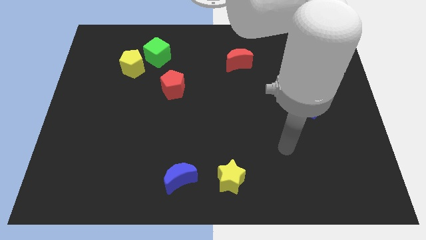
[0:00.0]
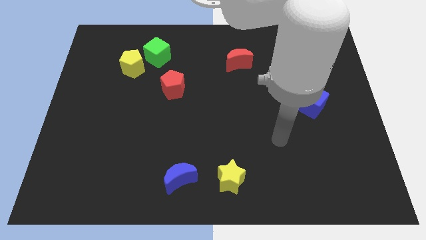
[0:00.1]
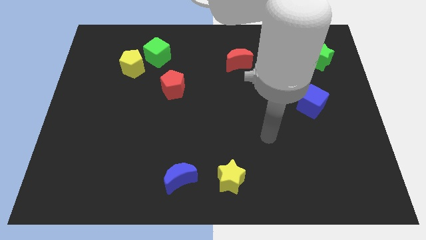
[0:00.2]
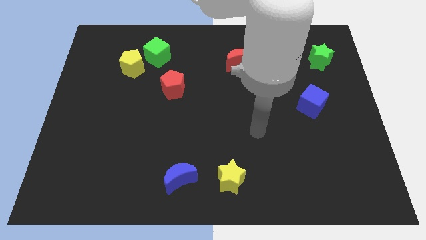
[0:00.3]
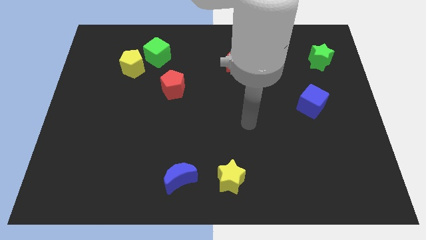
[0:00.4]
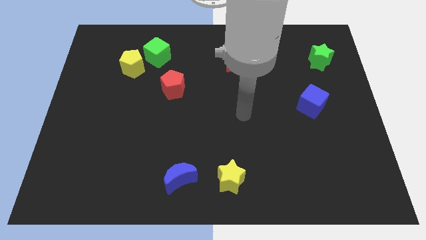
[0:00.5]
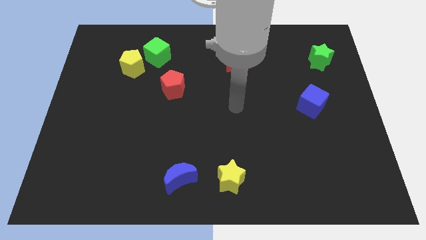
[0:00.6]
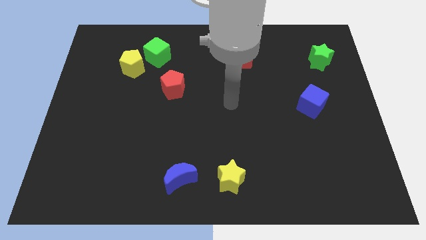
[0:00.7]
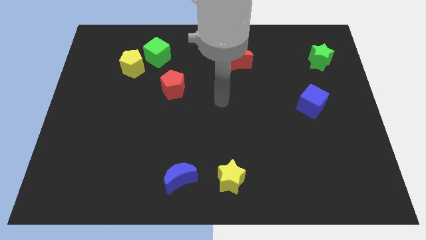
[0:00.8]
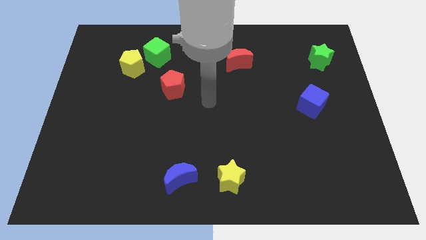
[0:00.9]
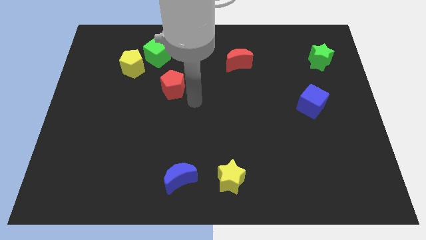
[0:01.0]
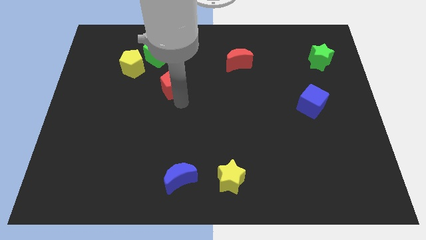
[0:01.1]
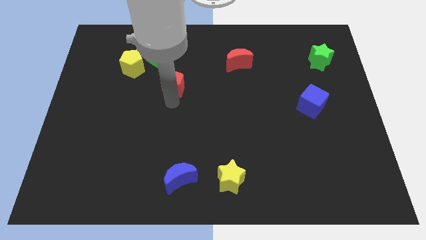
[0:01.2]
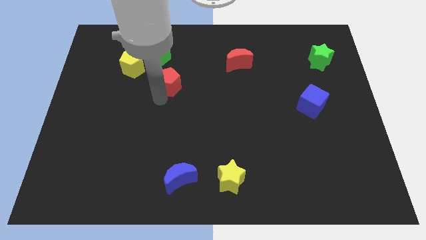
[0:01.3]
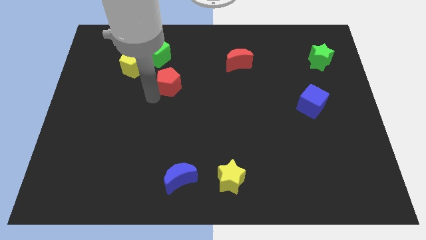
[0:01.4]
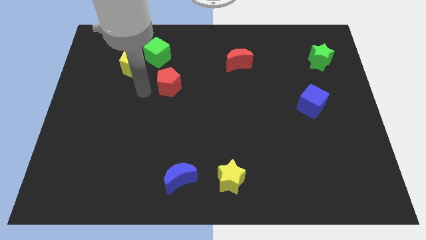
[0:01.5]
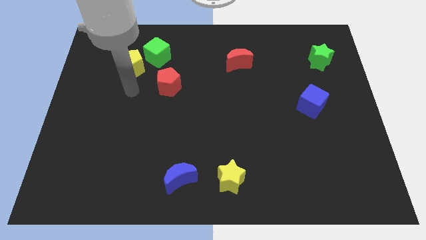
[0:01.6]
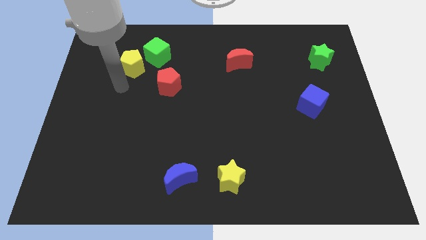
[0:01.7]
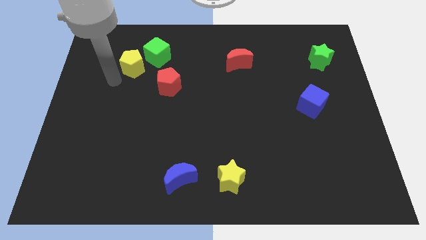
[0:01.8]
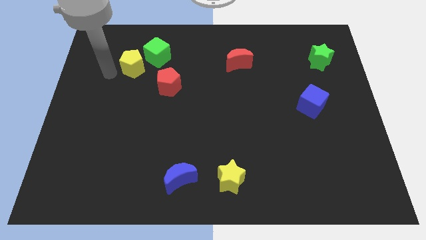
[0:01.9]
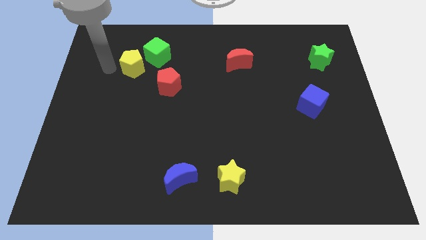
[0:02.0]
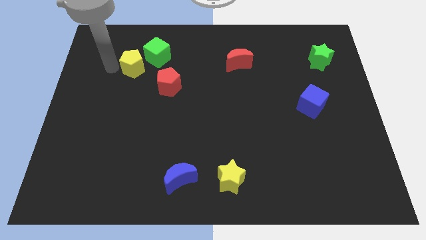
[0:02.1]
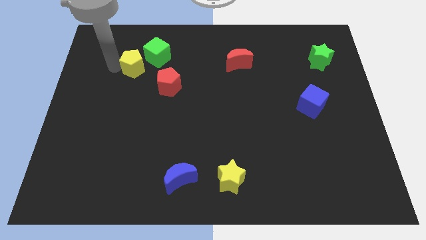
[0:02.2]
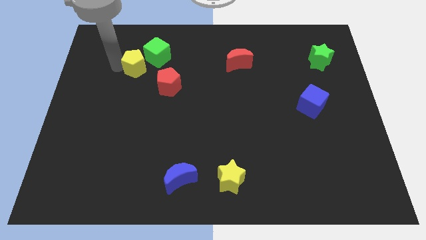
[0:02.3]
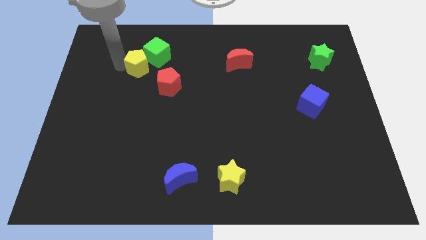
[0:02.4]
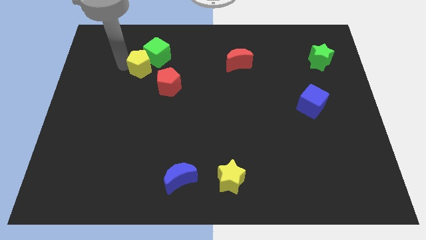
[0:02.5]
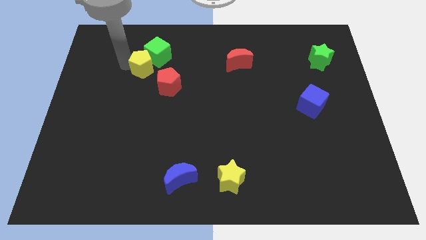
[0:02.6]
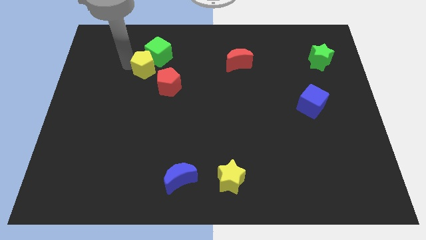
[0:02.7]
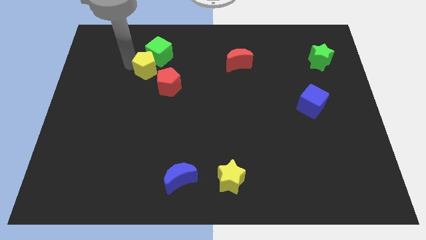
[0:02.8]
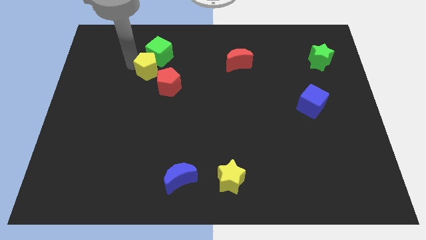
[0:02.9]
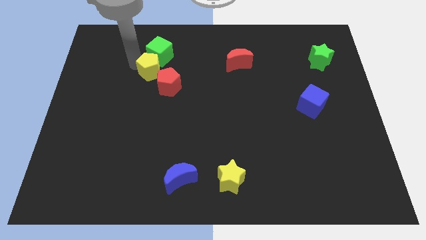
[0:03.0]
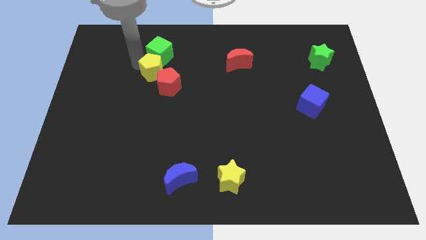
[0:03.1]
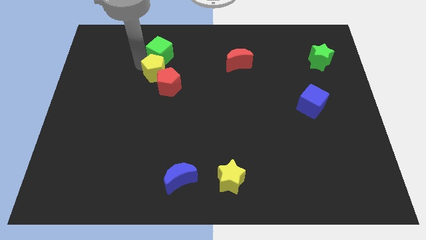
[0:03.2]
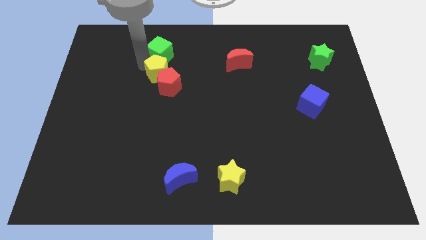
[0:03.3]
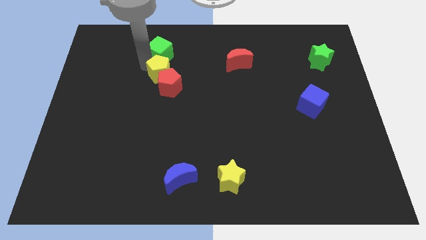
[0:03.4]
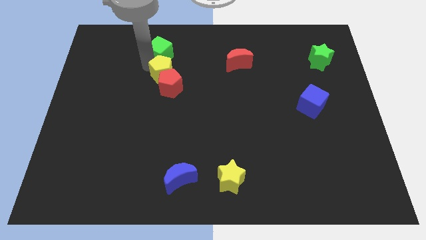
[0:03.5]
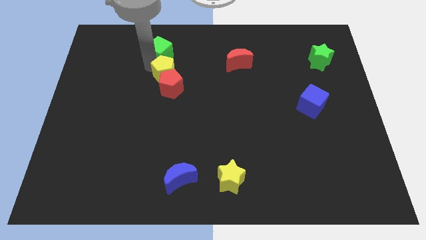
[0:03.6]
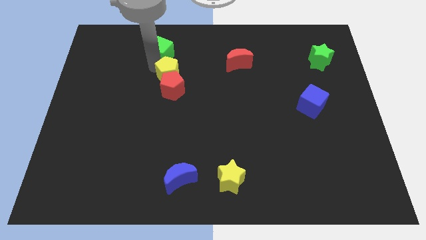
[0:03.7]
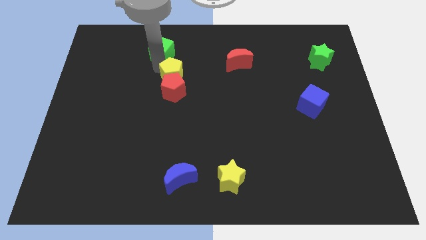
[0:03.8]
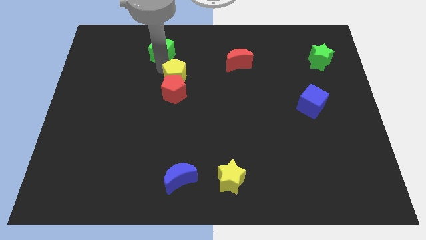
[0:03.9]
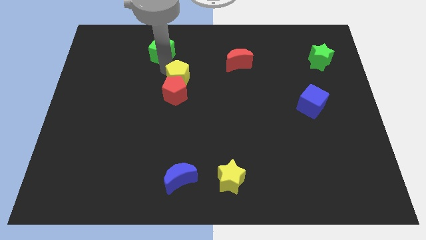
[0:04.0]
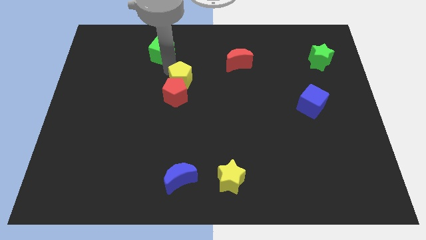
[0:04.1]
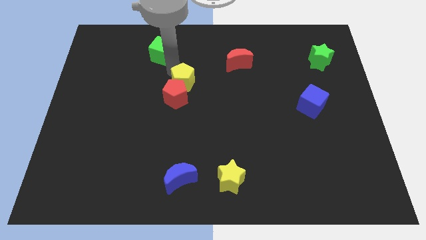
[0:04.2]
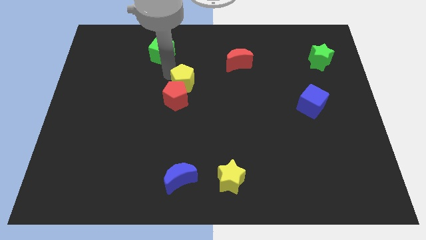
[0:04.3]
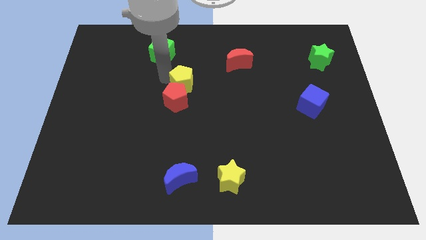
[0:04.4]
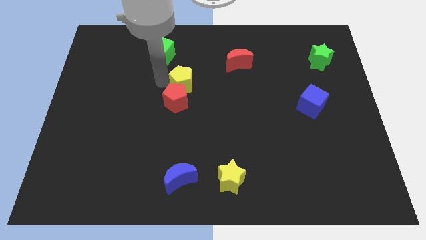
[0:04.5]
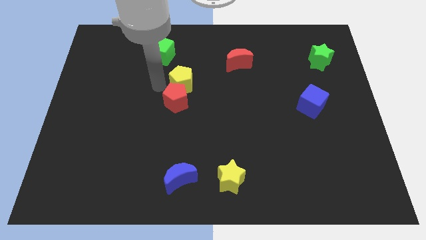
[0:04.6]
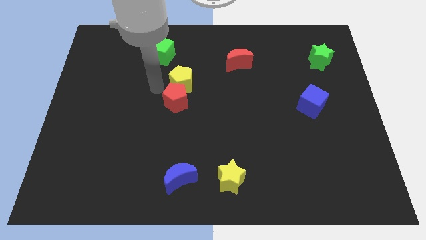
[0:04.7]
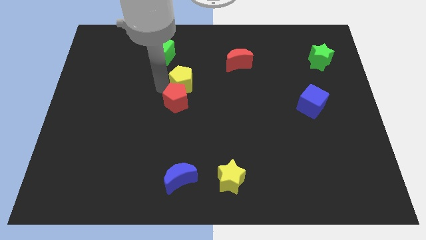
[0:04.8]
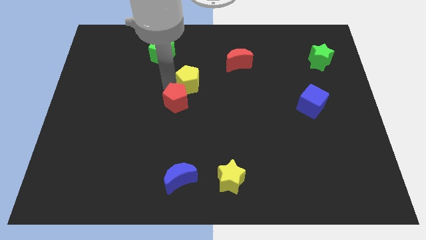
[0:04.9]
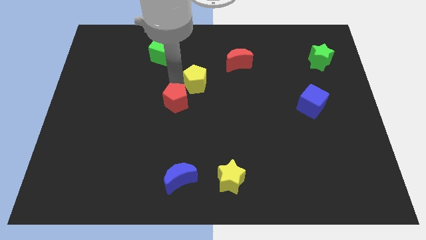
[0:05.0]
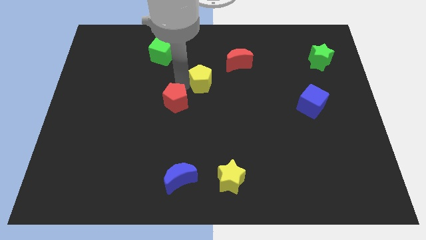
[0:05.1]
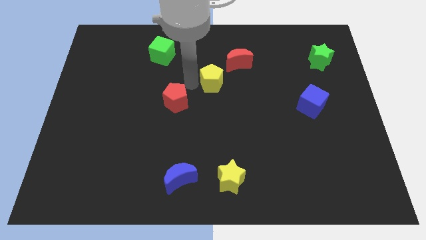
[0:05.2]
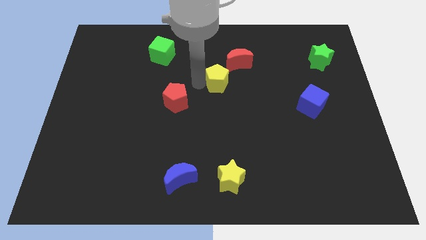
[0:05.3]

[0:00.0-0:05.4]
move the yellow pentagon to the right

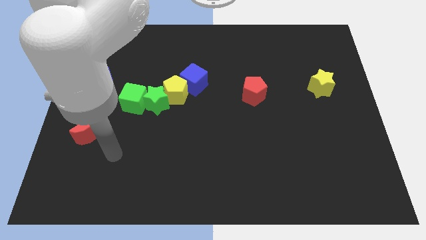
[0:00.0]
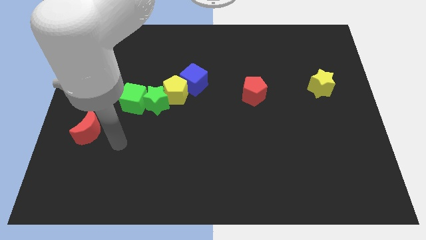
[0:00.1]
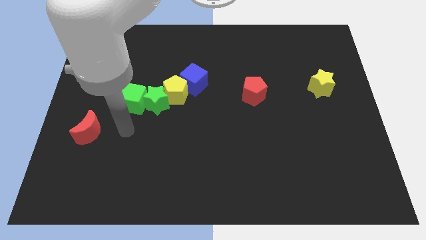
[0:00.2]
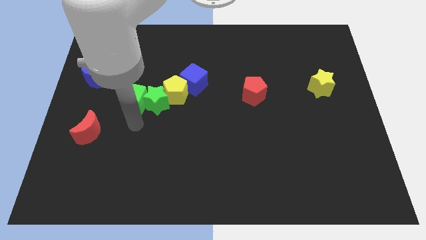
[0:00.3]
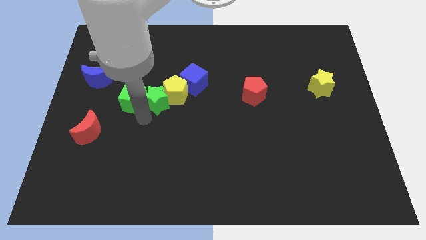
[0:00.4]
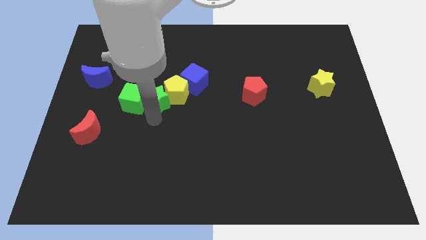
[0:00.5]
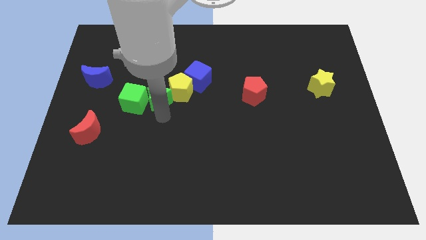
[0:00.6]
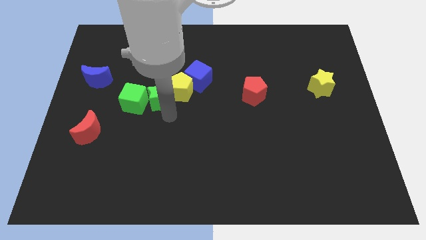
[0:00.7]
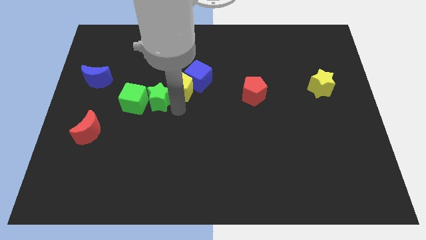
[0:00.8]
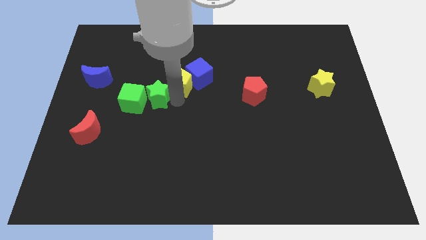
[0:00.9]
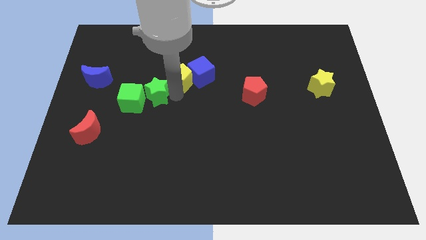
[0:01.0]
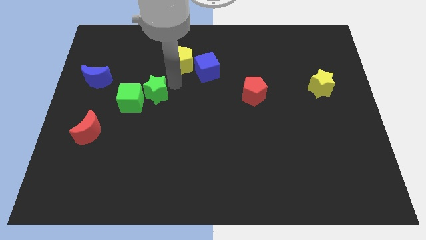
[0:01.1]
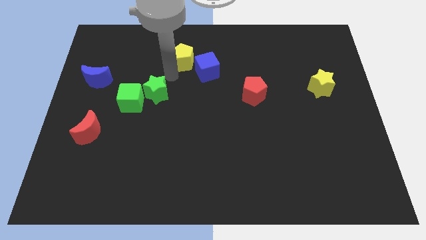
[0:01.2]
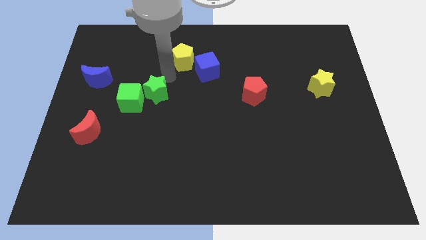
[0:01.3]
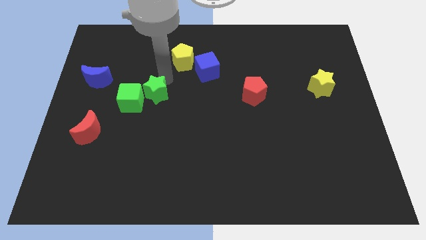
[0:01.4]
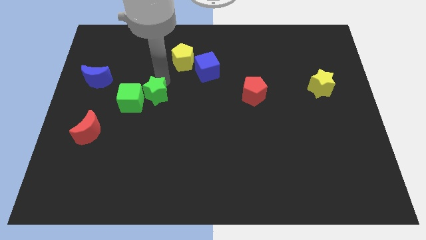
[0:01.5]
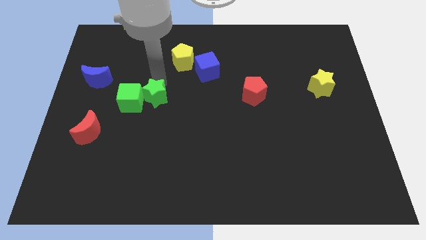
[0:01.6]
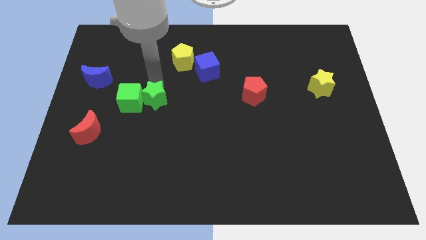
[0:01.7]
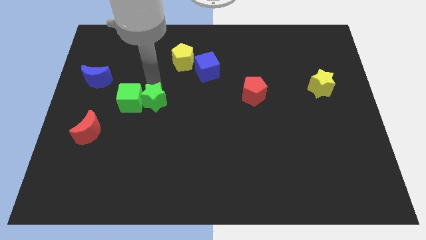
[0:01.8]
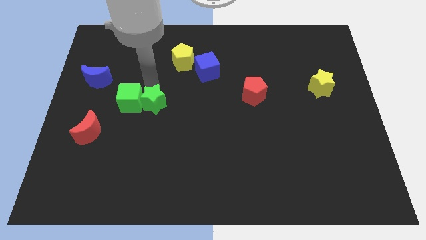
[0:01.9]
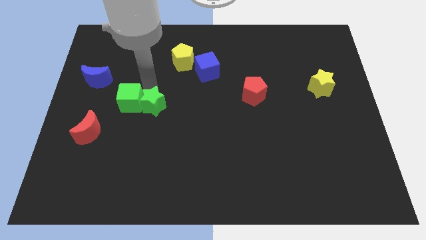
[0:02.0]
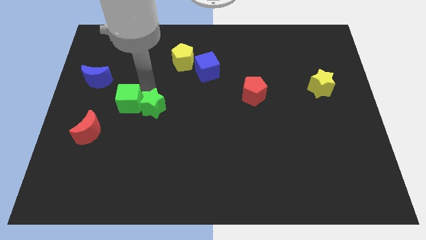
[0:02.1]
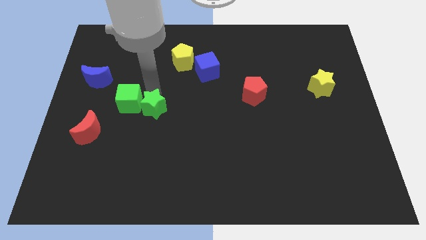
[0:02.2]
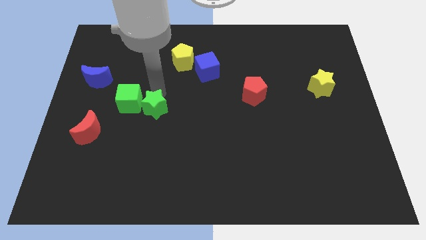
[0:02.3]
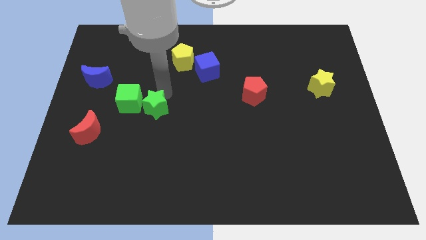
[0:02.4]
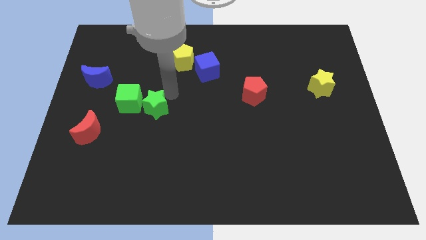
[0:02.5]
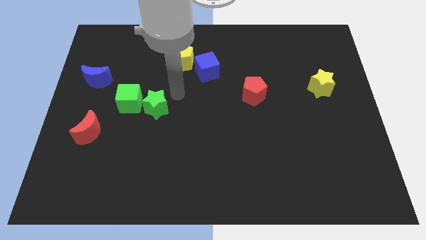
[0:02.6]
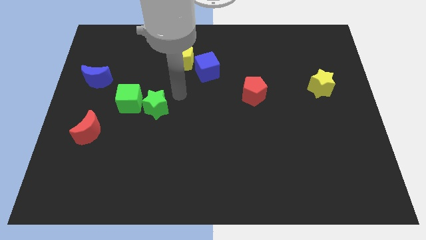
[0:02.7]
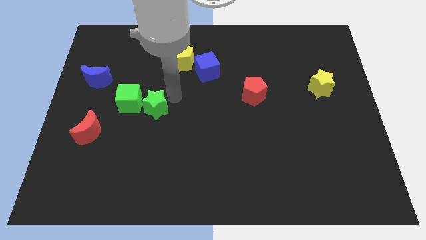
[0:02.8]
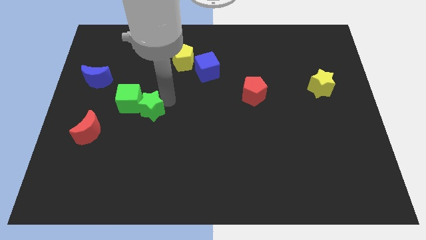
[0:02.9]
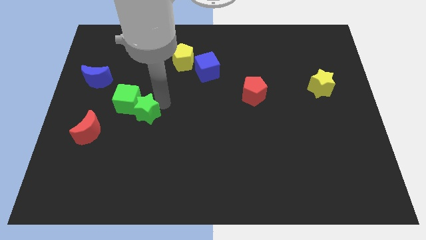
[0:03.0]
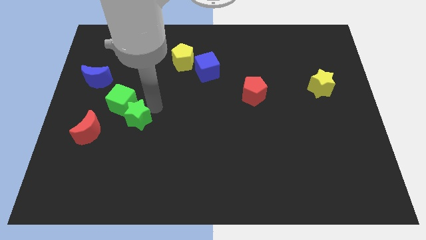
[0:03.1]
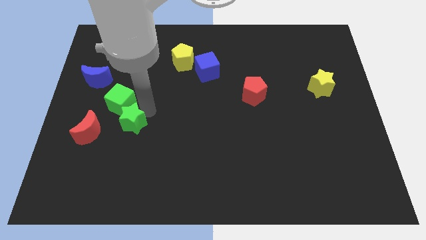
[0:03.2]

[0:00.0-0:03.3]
slide the green star downwards and to the left diagonally slightly
